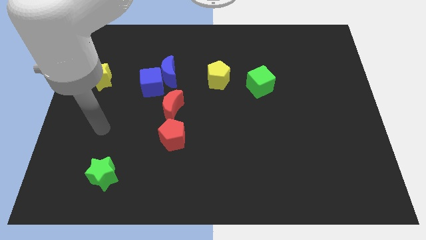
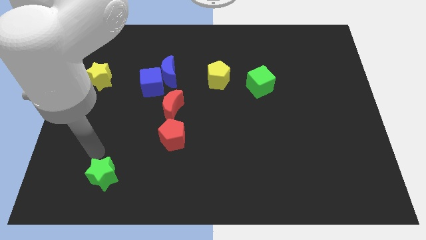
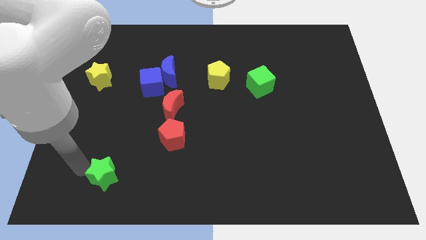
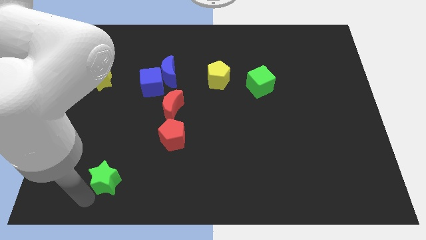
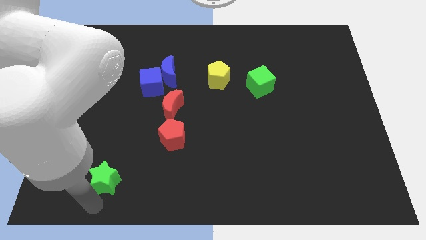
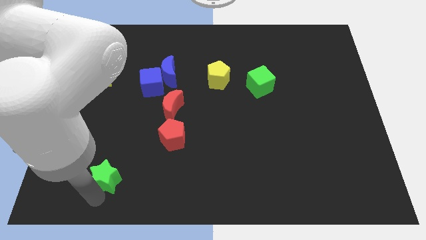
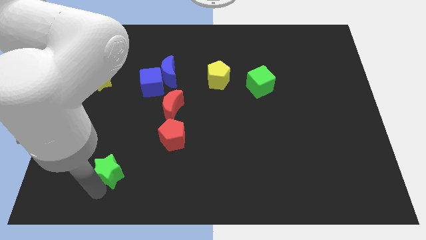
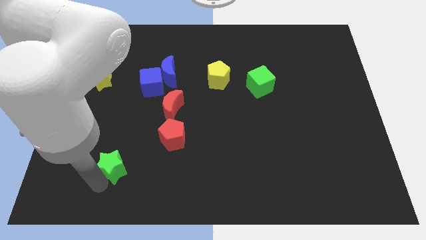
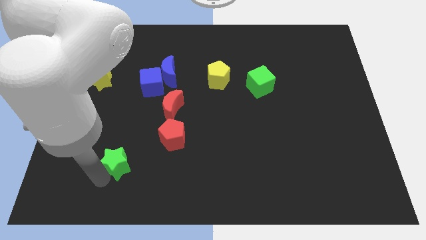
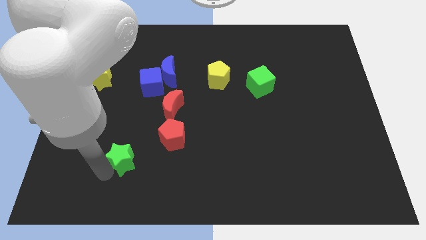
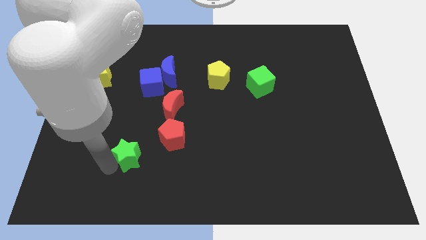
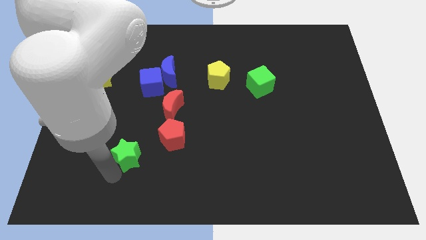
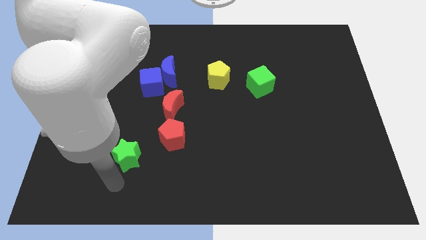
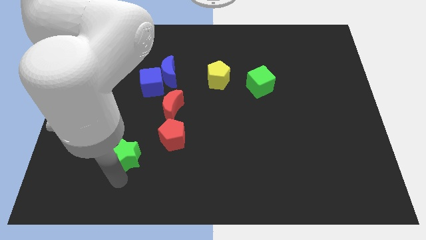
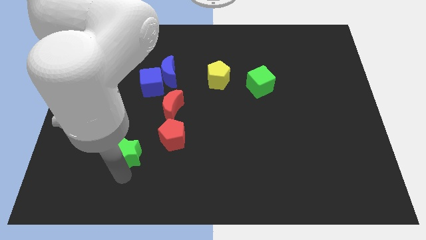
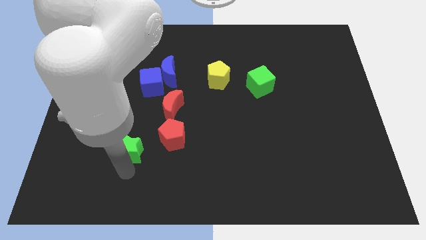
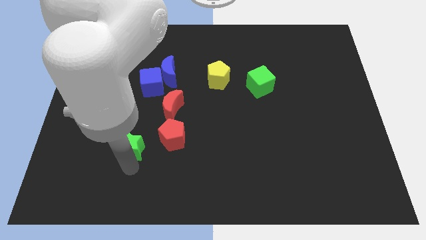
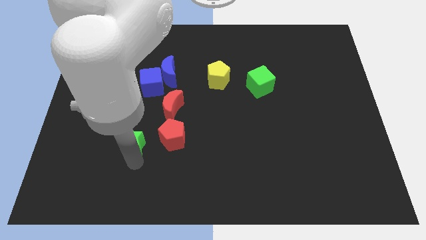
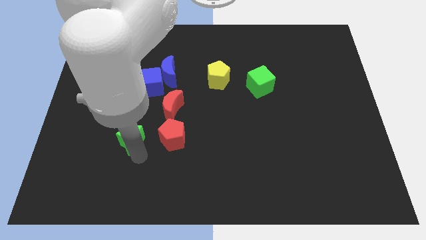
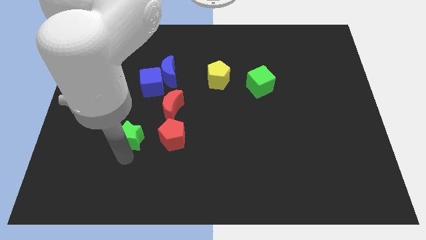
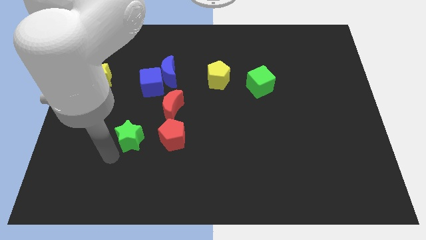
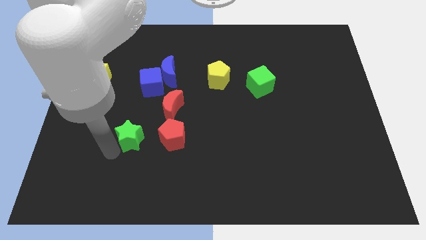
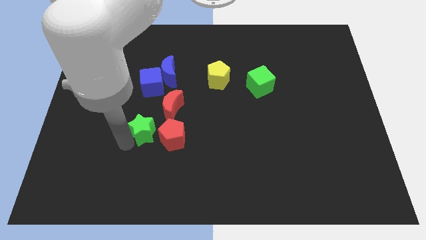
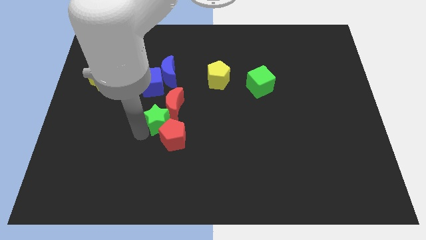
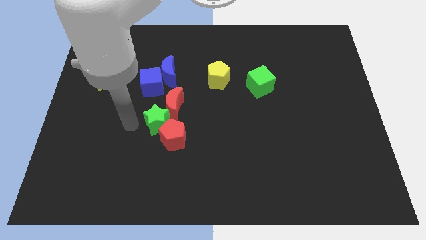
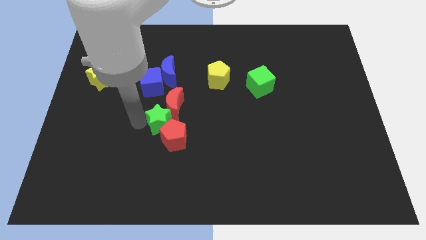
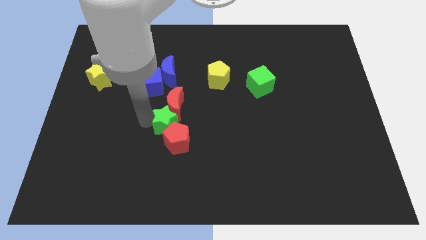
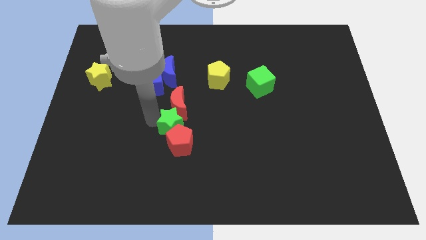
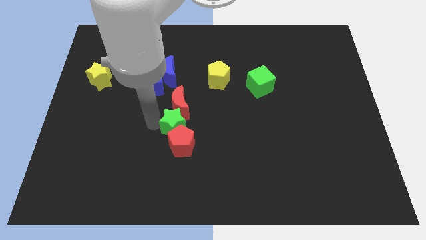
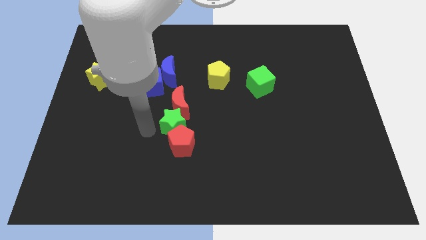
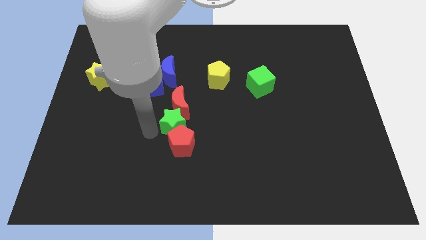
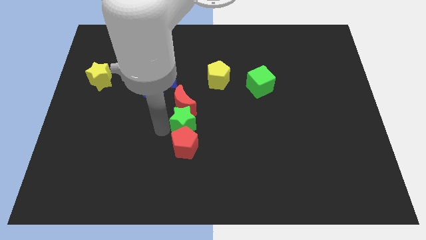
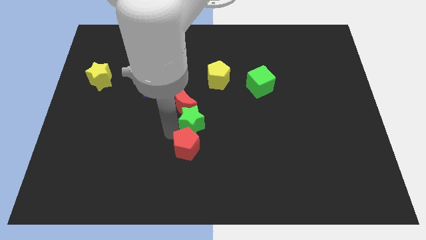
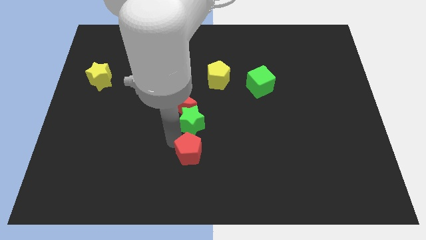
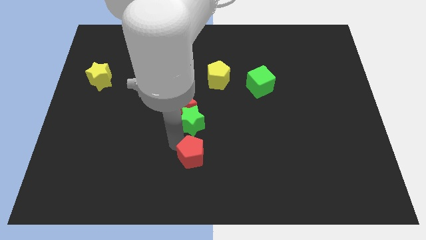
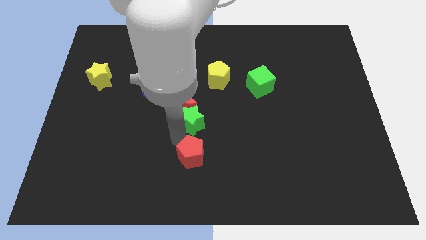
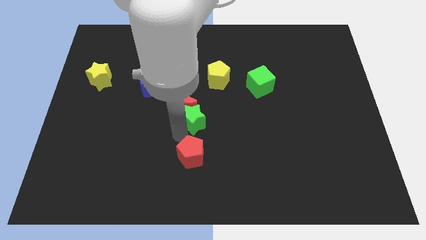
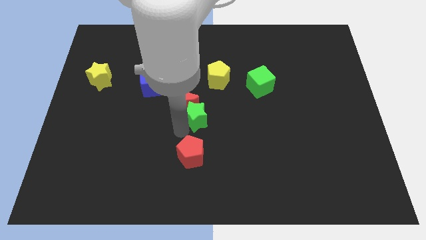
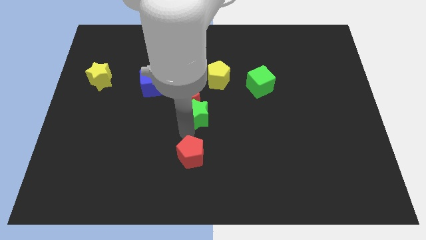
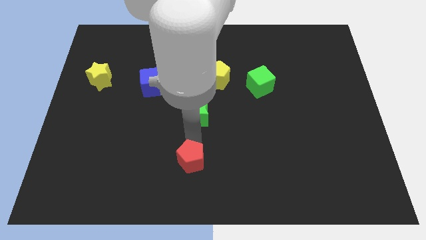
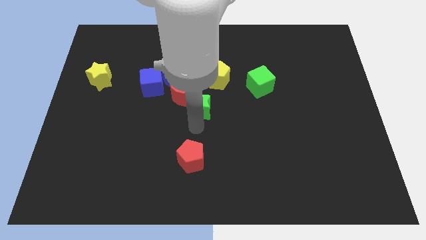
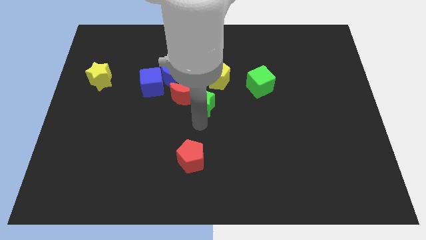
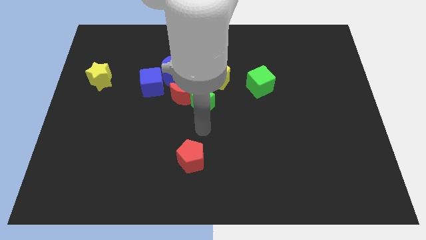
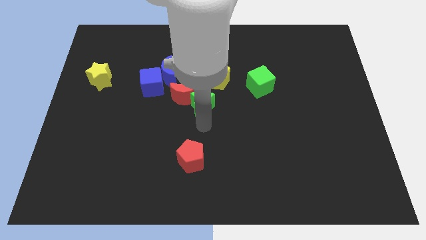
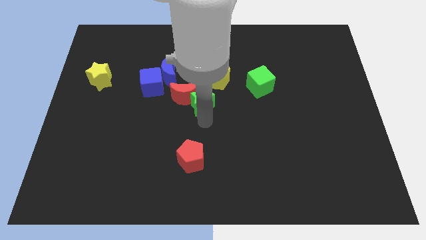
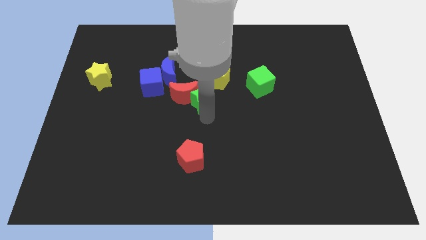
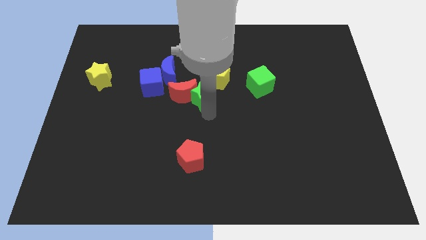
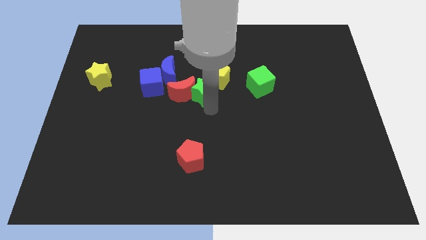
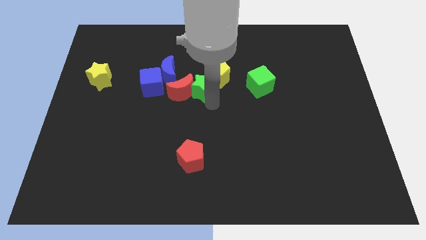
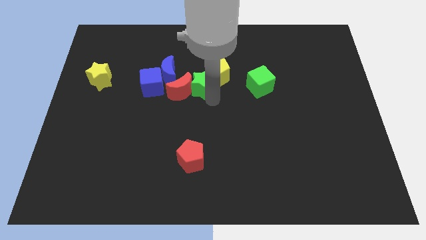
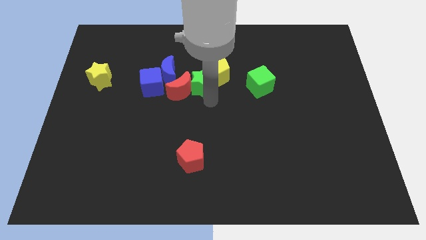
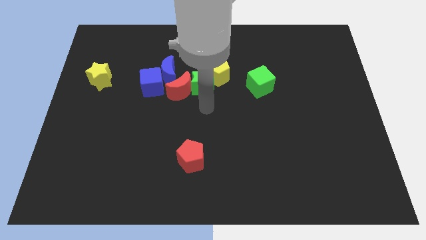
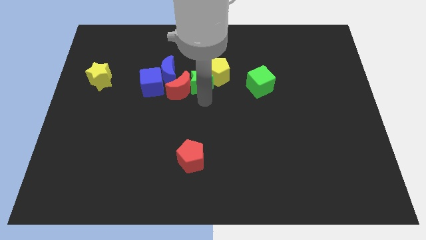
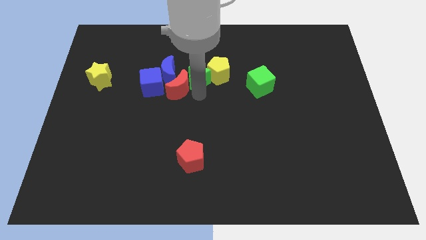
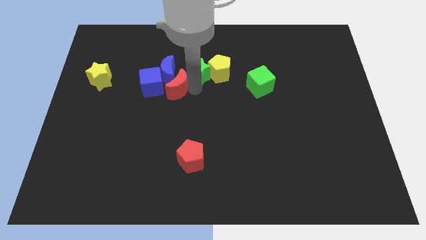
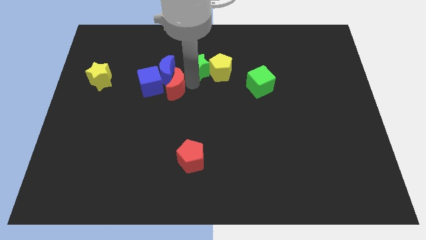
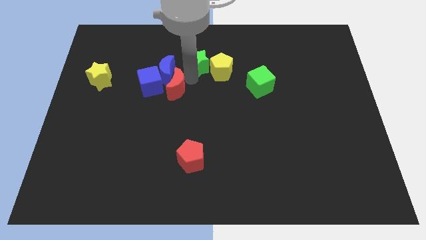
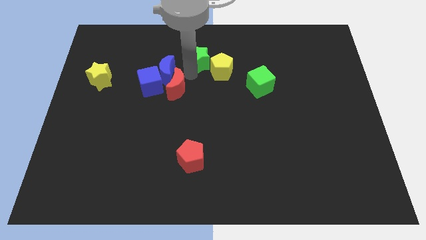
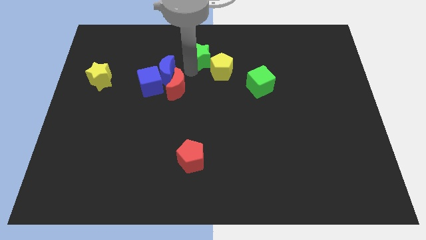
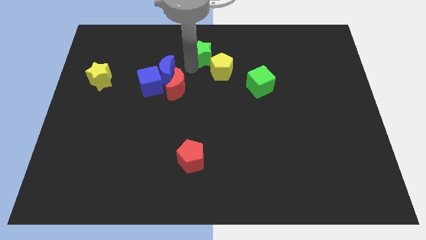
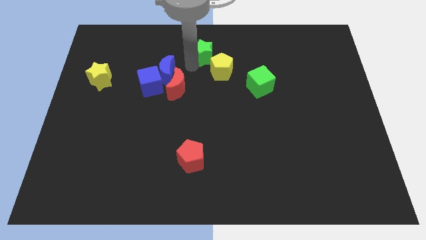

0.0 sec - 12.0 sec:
push the green star to the top side

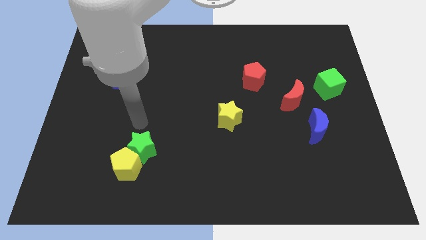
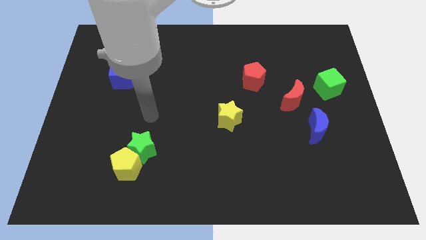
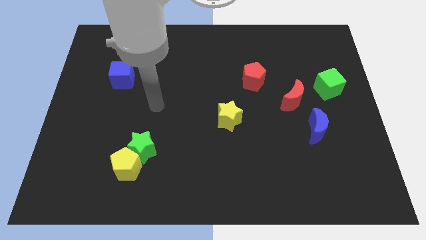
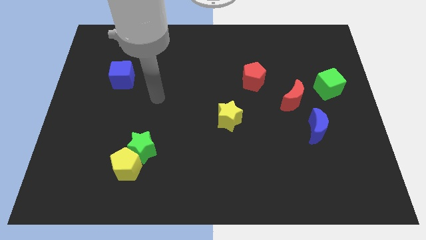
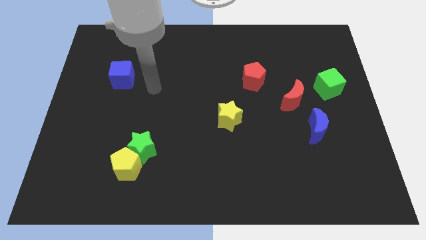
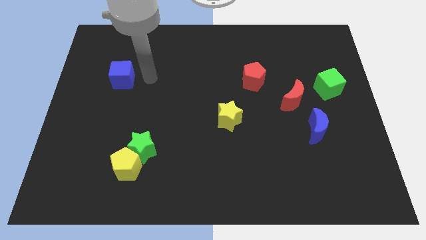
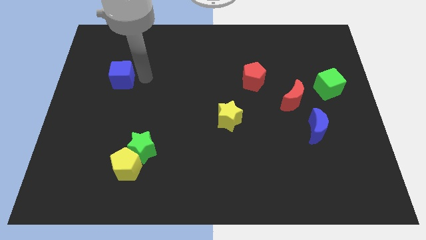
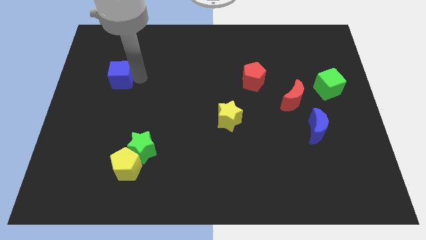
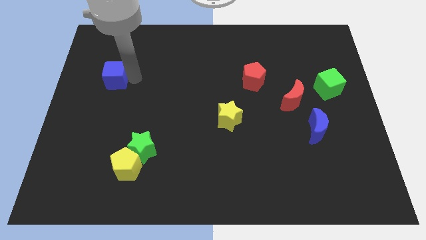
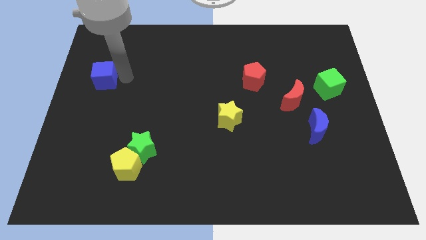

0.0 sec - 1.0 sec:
slide the blue cube to the left side

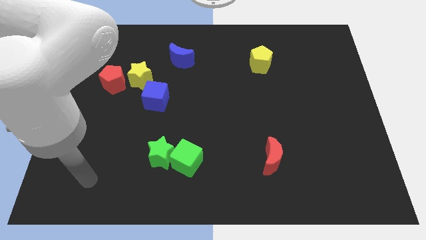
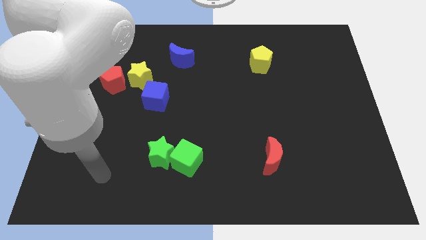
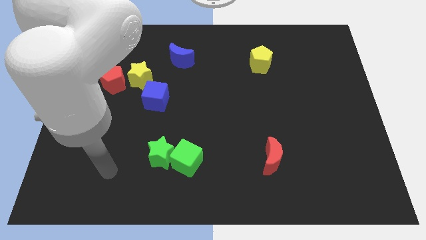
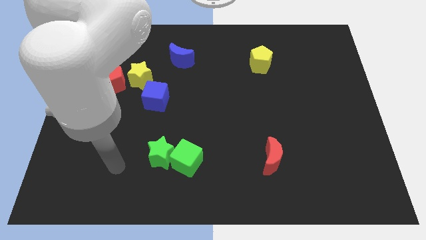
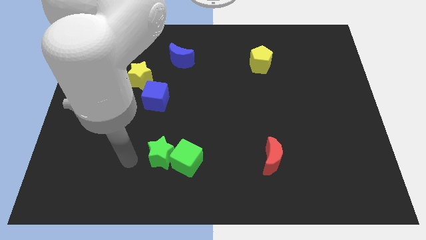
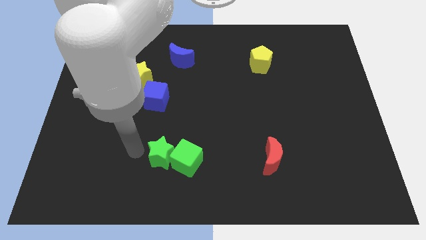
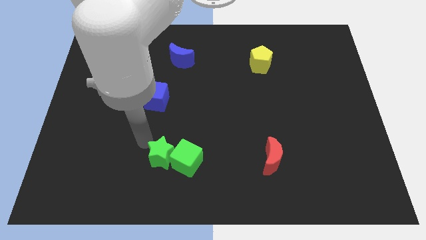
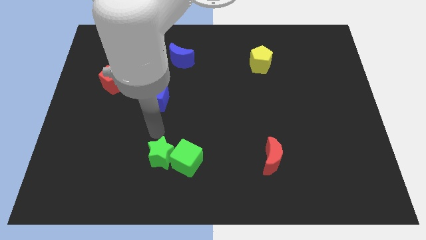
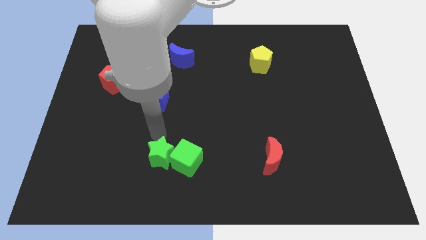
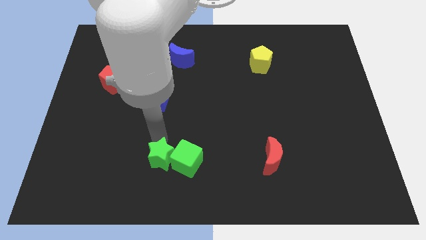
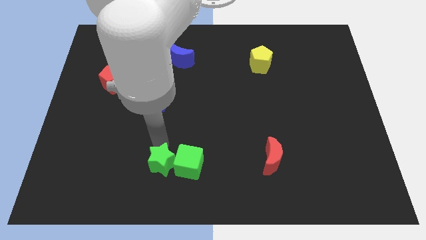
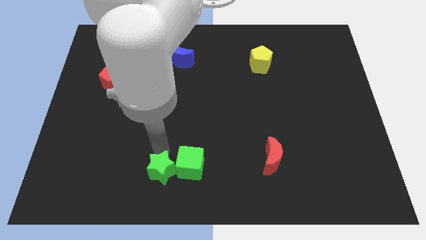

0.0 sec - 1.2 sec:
move the green star to the bottom
